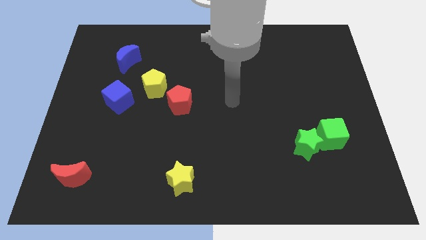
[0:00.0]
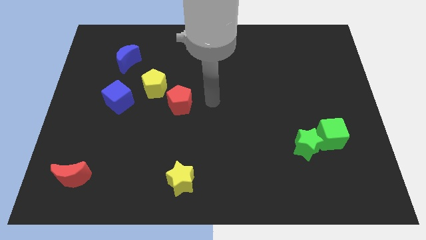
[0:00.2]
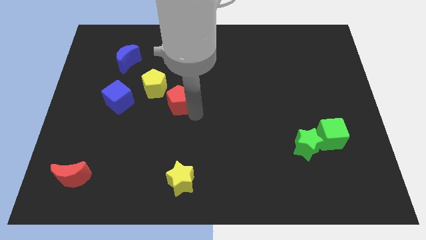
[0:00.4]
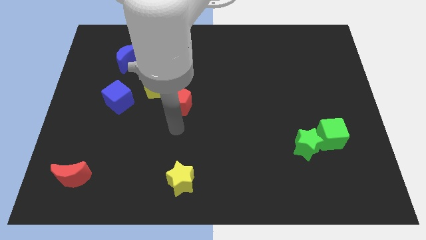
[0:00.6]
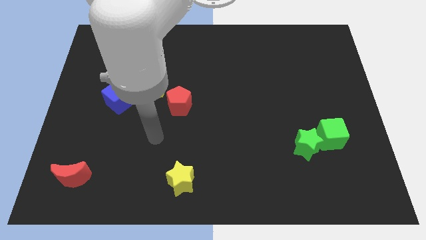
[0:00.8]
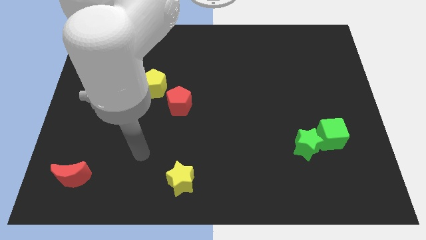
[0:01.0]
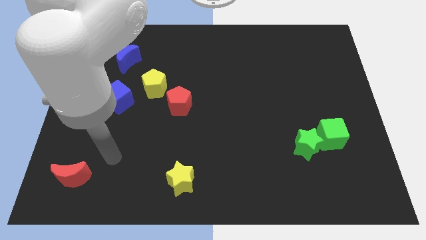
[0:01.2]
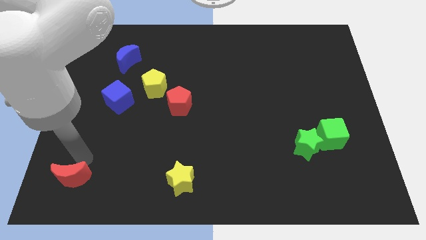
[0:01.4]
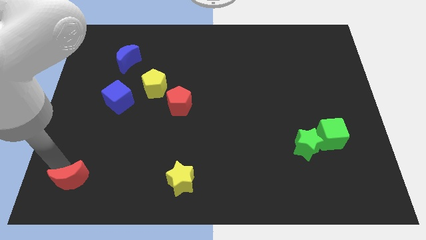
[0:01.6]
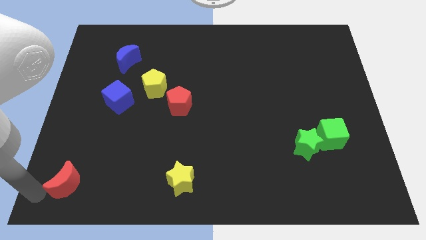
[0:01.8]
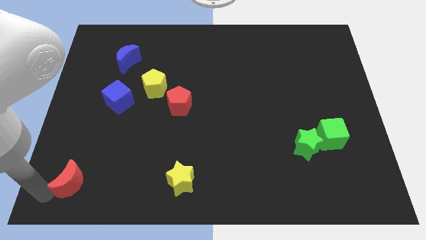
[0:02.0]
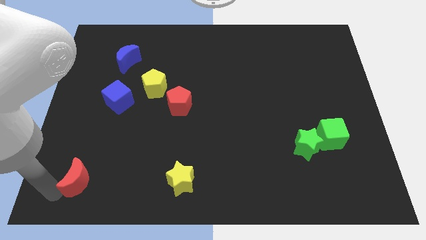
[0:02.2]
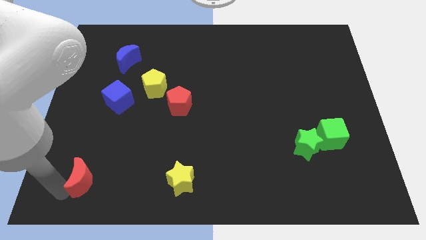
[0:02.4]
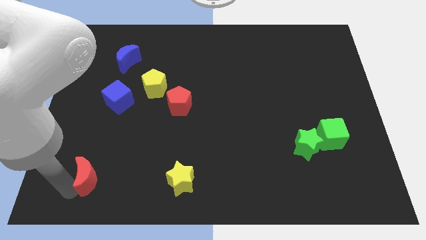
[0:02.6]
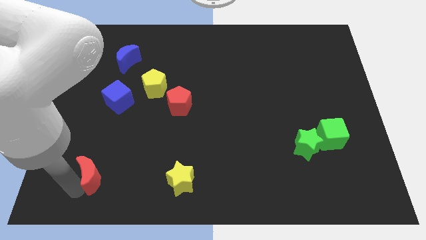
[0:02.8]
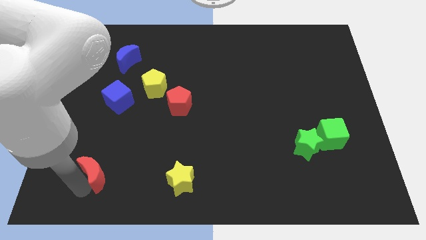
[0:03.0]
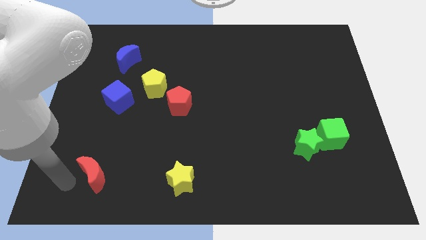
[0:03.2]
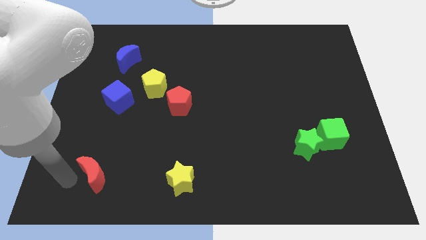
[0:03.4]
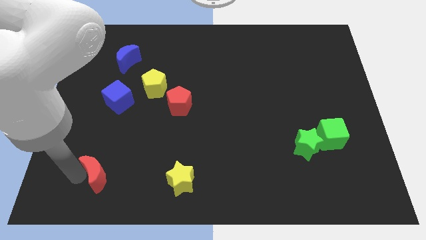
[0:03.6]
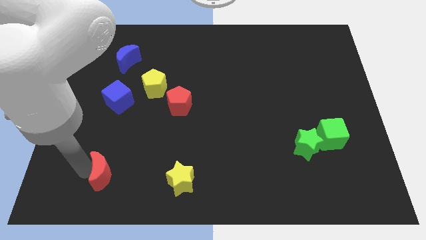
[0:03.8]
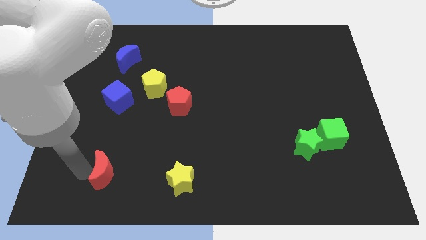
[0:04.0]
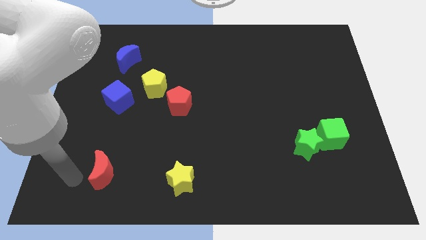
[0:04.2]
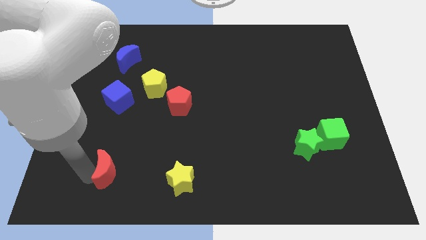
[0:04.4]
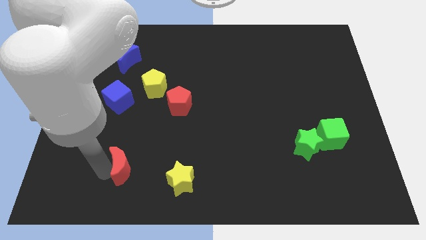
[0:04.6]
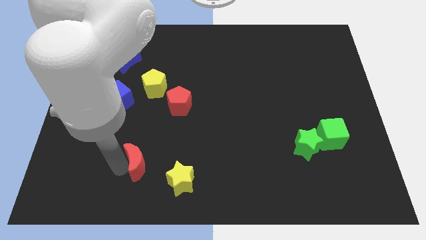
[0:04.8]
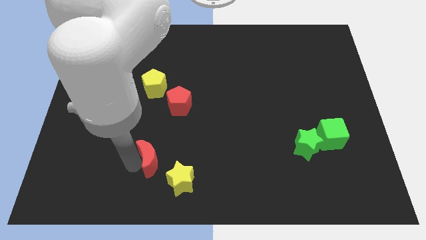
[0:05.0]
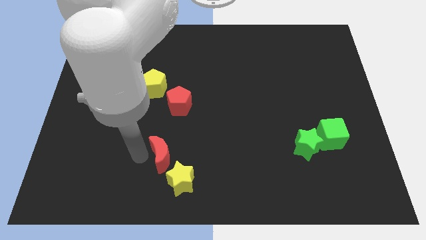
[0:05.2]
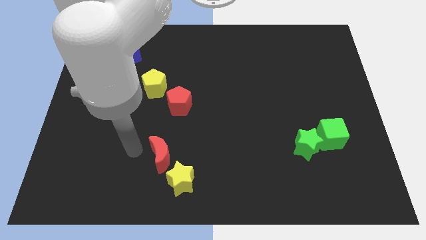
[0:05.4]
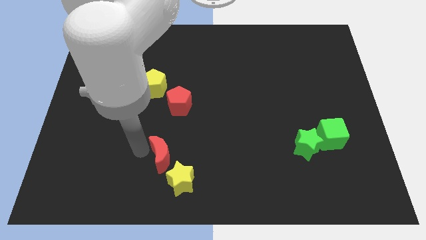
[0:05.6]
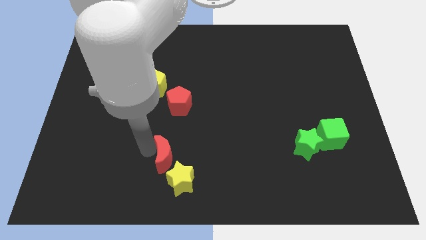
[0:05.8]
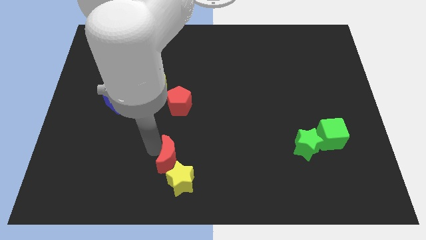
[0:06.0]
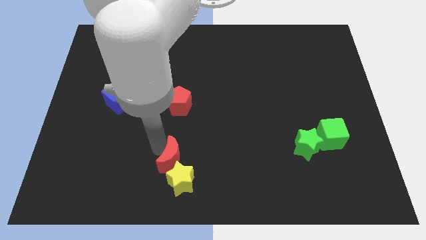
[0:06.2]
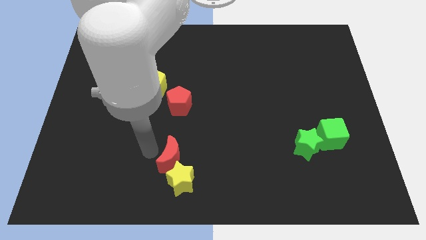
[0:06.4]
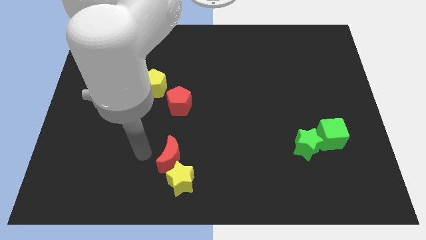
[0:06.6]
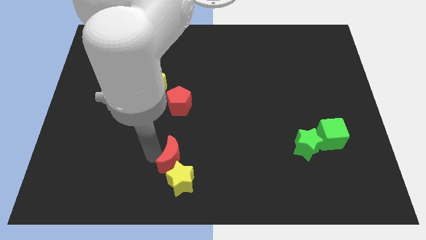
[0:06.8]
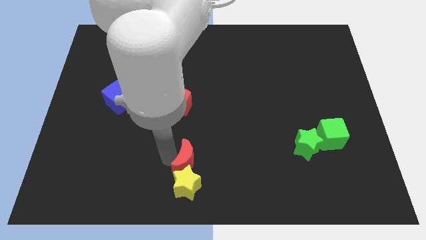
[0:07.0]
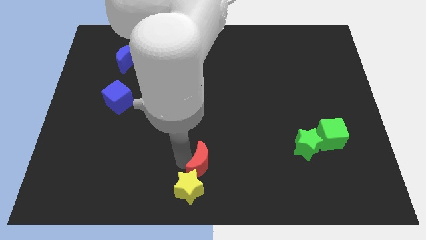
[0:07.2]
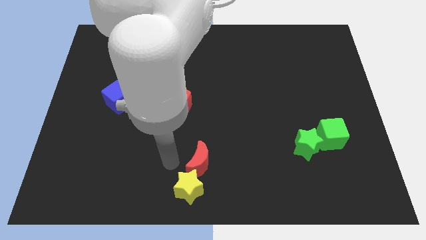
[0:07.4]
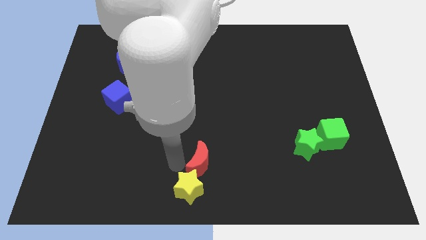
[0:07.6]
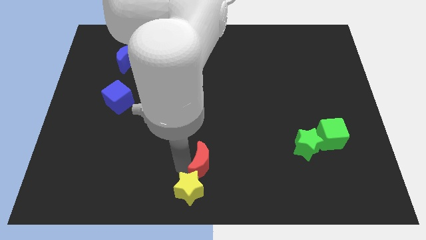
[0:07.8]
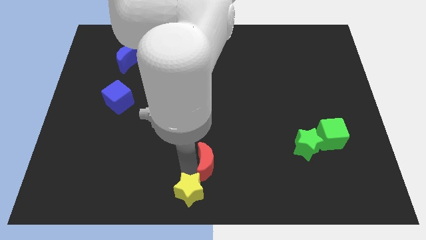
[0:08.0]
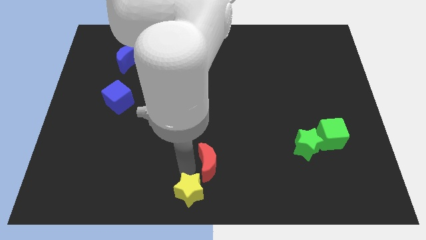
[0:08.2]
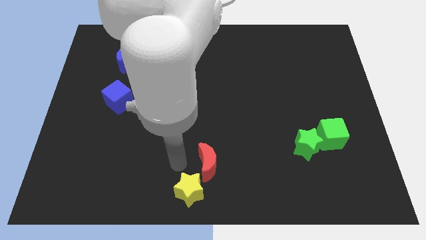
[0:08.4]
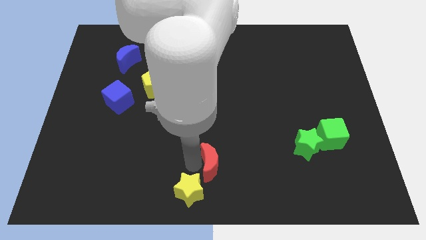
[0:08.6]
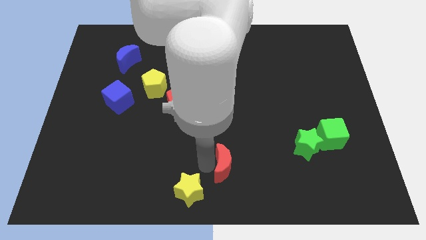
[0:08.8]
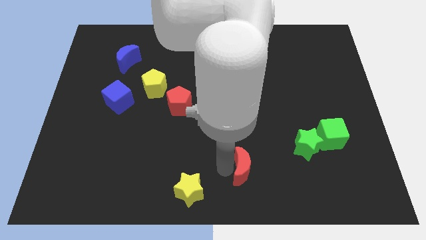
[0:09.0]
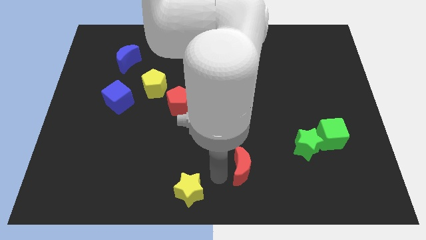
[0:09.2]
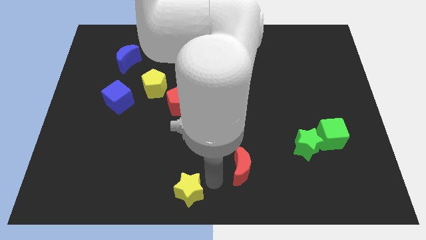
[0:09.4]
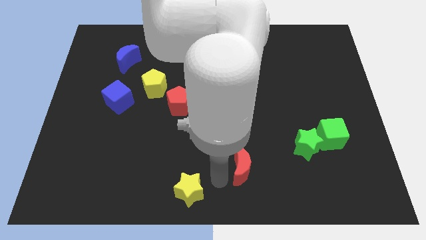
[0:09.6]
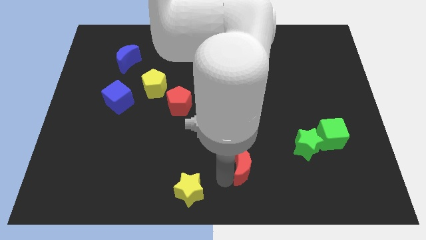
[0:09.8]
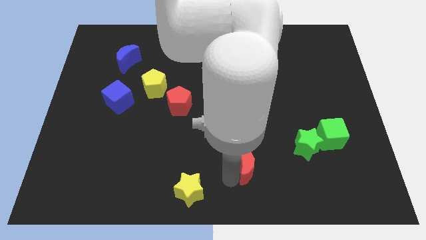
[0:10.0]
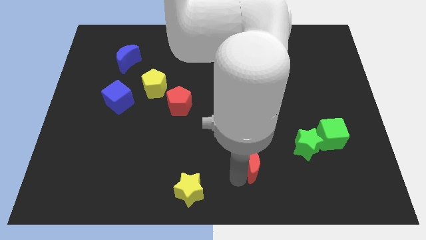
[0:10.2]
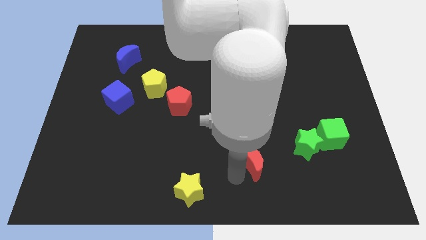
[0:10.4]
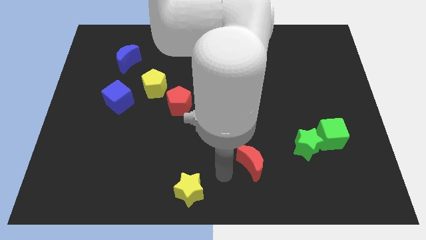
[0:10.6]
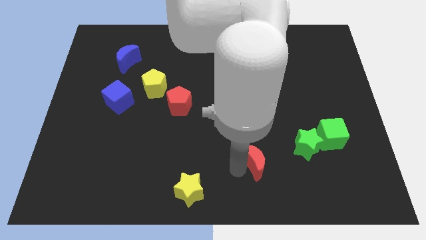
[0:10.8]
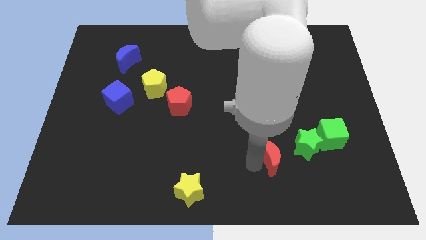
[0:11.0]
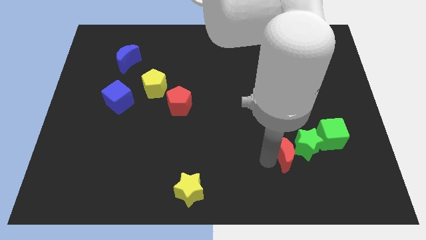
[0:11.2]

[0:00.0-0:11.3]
push the red moon towards the green star

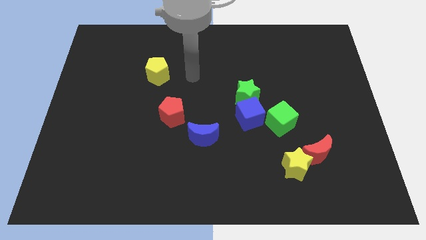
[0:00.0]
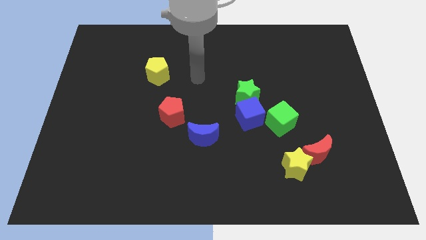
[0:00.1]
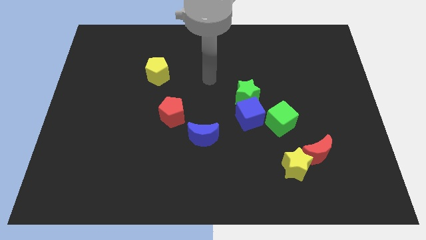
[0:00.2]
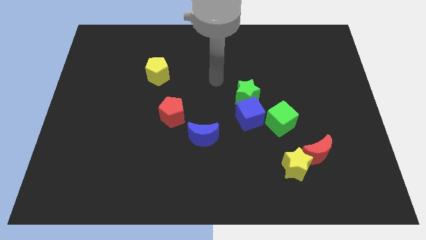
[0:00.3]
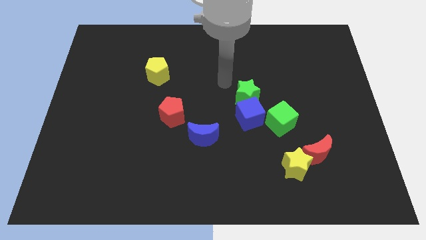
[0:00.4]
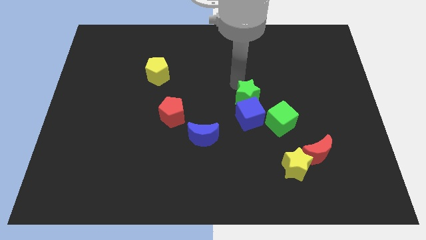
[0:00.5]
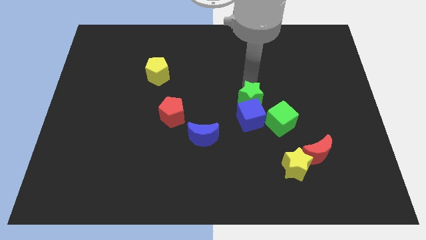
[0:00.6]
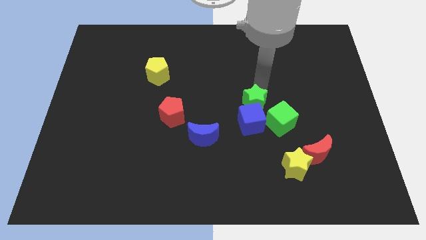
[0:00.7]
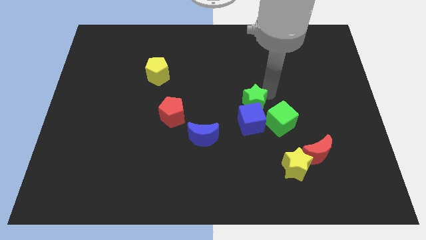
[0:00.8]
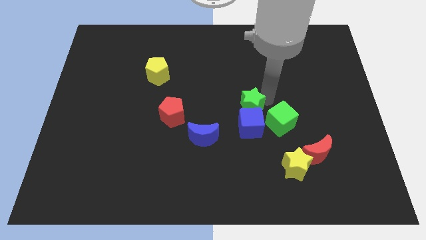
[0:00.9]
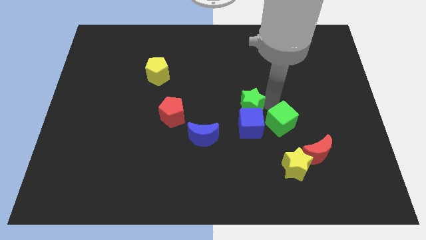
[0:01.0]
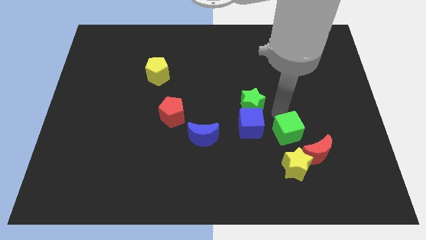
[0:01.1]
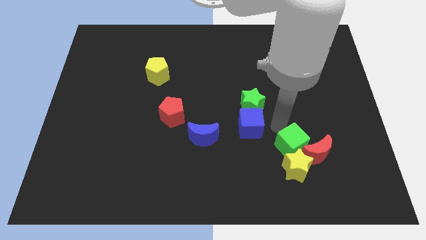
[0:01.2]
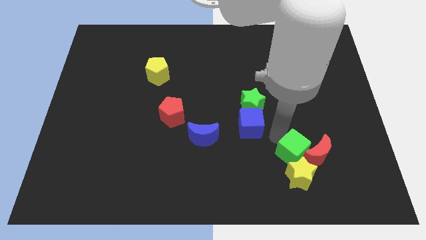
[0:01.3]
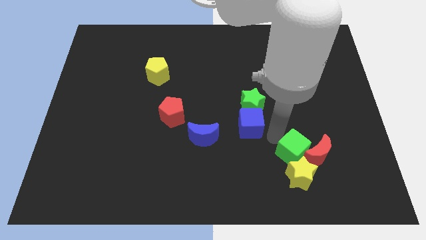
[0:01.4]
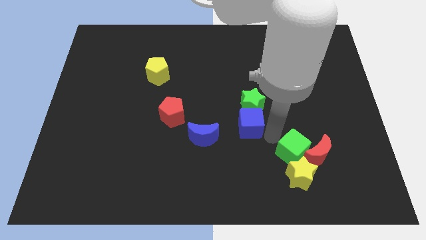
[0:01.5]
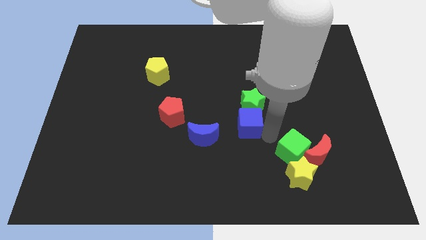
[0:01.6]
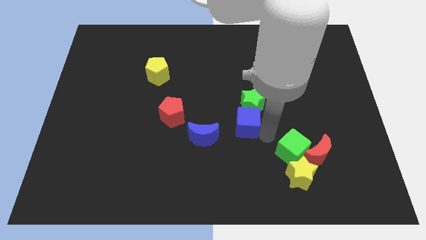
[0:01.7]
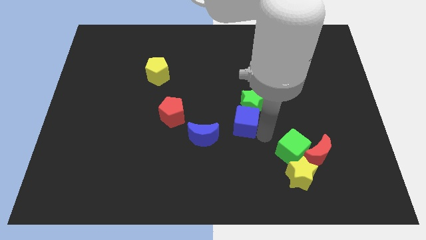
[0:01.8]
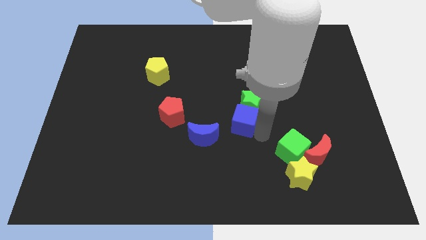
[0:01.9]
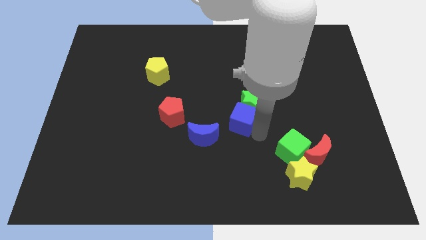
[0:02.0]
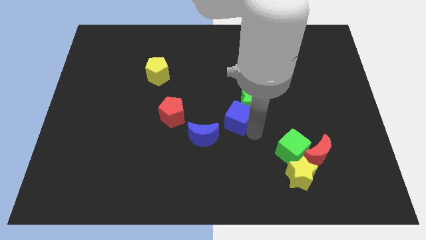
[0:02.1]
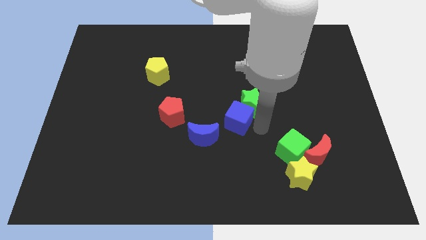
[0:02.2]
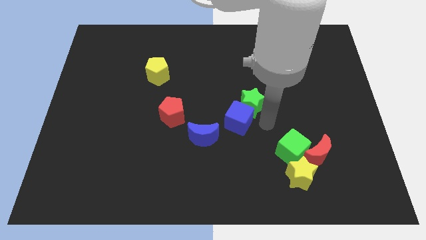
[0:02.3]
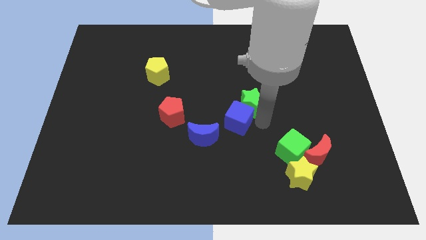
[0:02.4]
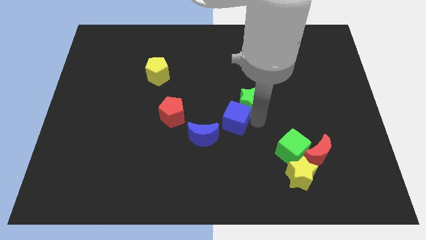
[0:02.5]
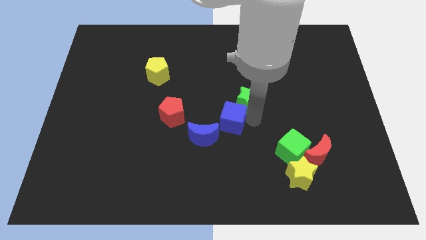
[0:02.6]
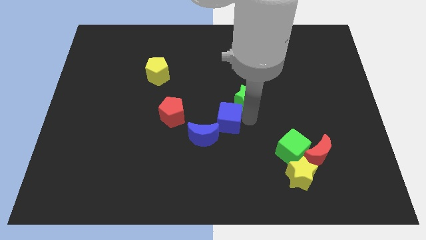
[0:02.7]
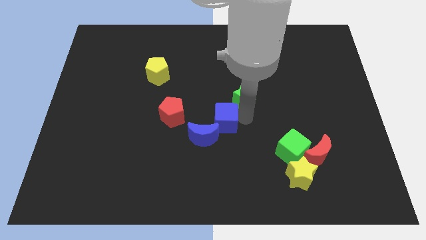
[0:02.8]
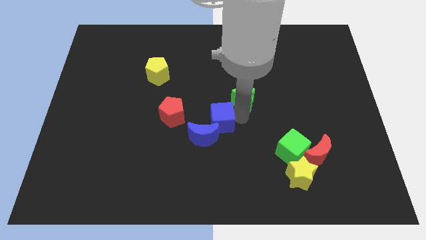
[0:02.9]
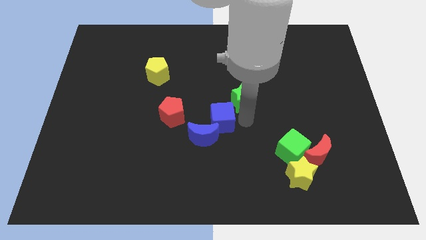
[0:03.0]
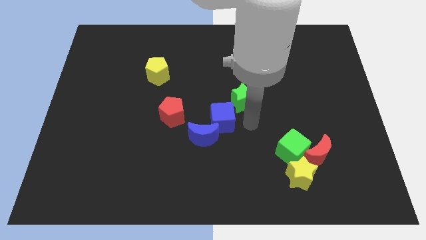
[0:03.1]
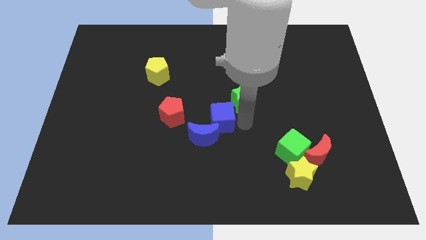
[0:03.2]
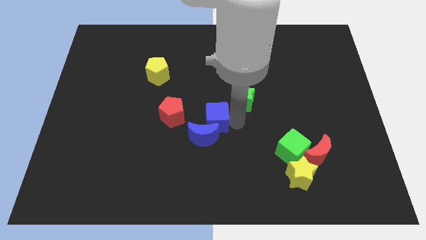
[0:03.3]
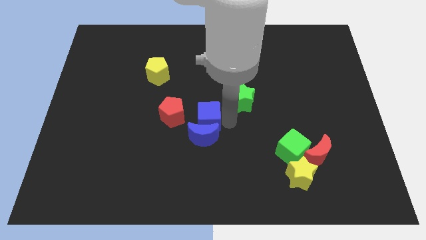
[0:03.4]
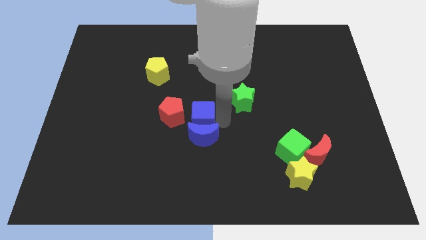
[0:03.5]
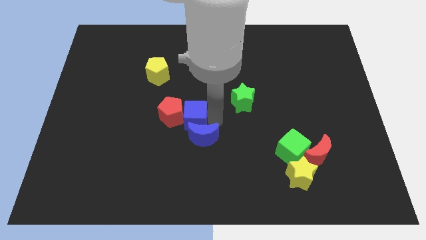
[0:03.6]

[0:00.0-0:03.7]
push the blue cube towards the red pentagon
